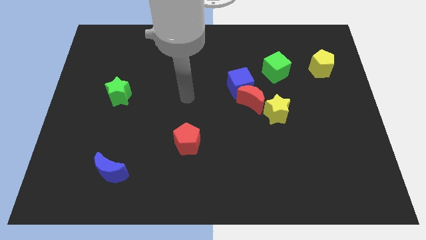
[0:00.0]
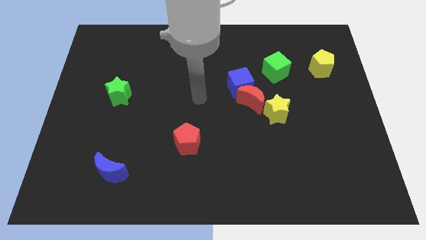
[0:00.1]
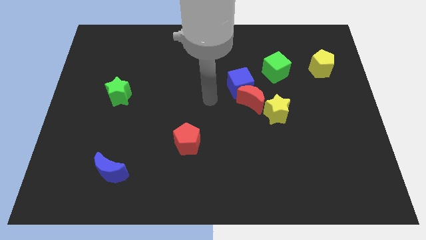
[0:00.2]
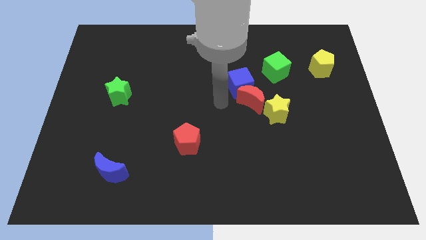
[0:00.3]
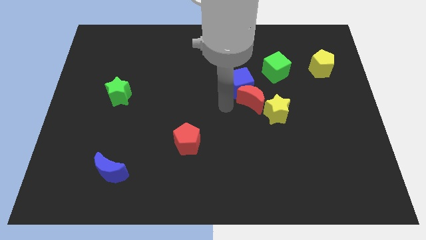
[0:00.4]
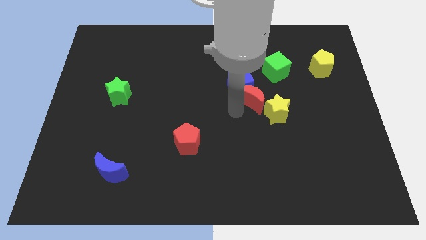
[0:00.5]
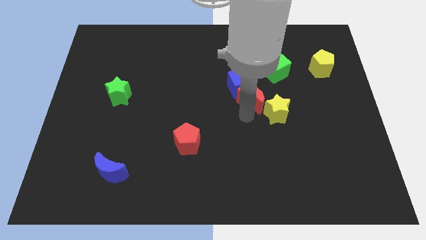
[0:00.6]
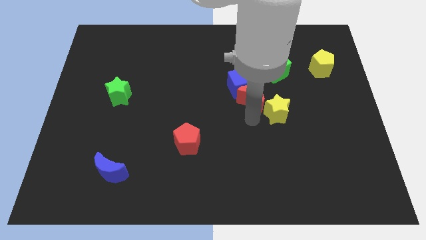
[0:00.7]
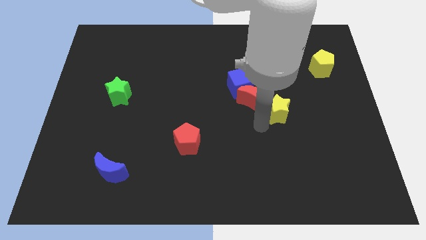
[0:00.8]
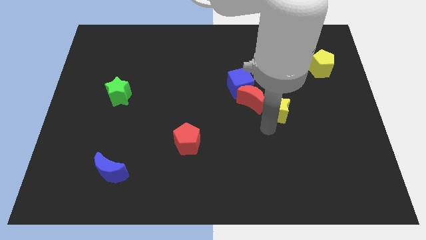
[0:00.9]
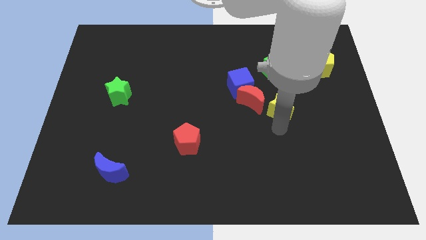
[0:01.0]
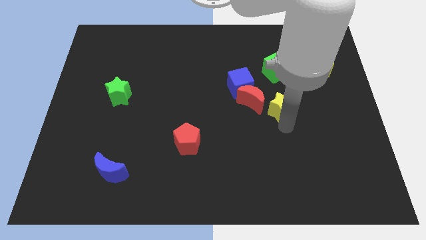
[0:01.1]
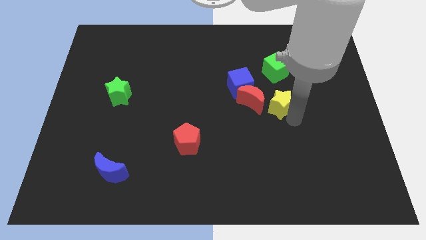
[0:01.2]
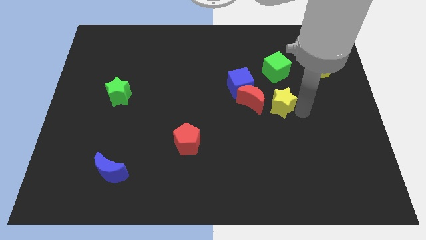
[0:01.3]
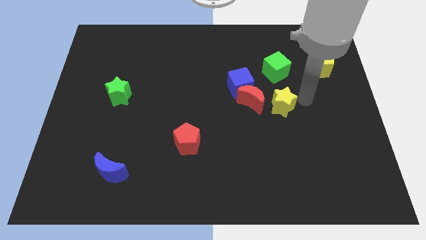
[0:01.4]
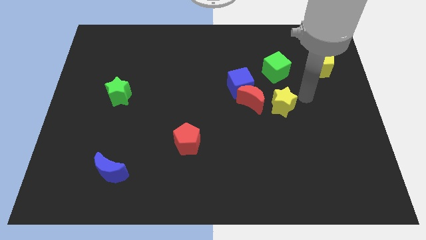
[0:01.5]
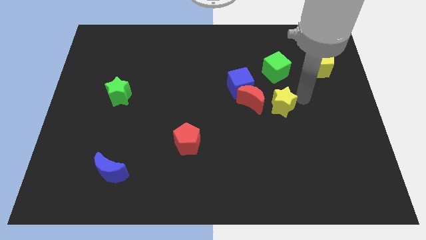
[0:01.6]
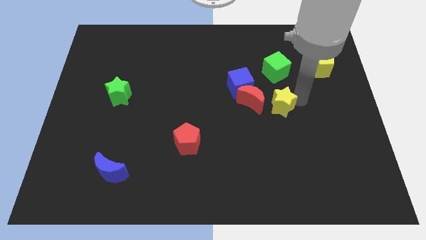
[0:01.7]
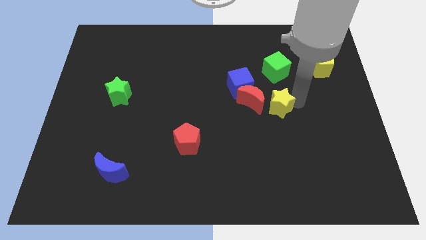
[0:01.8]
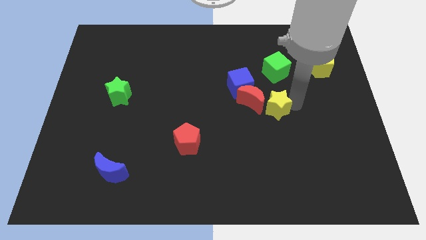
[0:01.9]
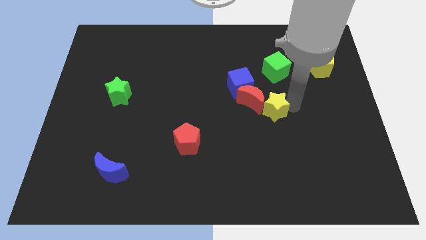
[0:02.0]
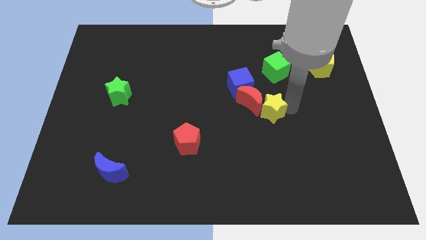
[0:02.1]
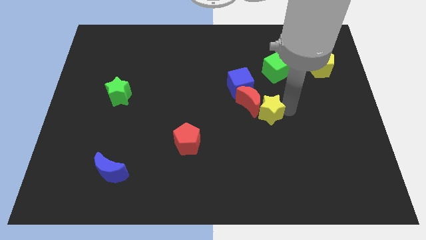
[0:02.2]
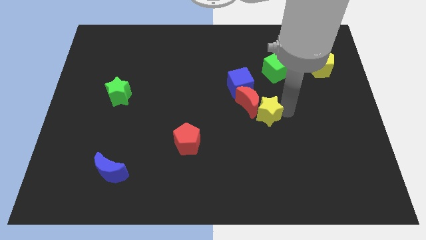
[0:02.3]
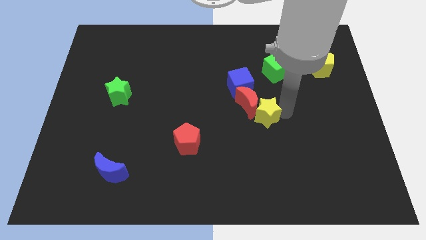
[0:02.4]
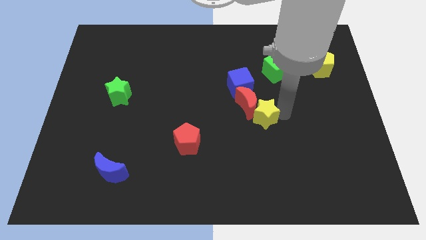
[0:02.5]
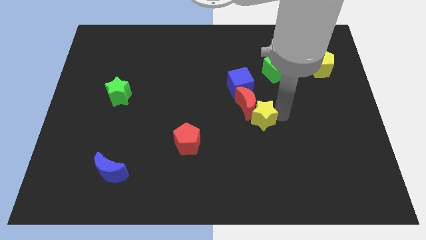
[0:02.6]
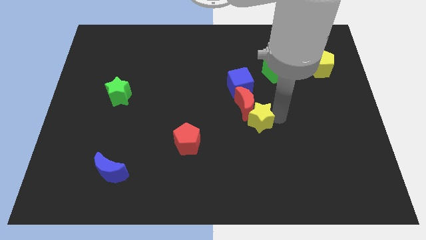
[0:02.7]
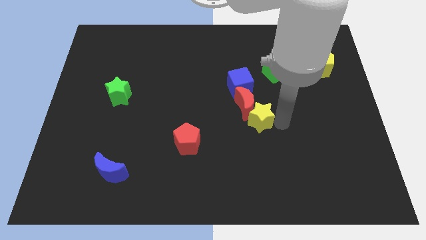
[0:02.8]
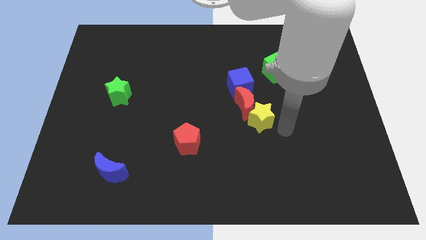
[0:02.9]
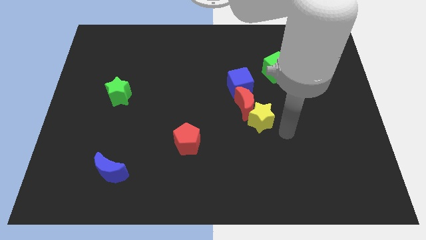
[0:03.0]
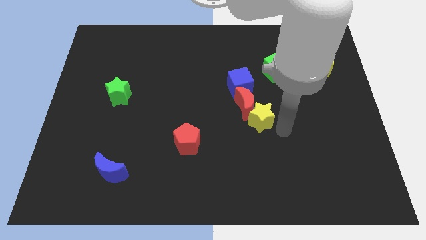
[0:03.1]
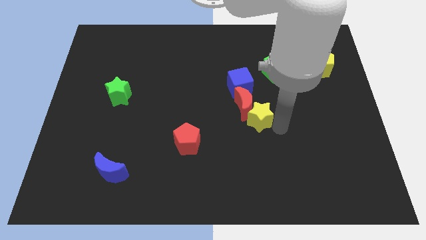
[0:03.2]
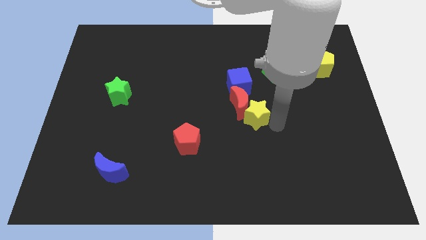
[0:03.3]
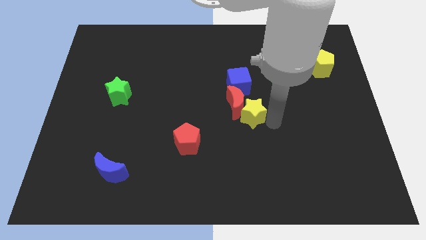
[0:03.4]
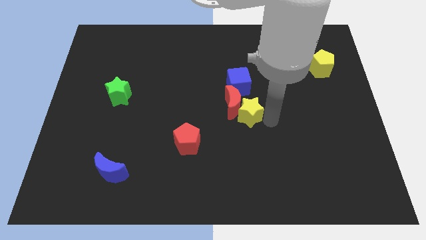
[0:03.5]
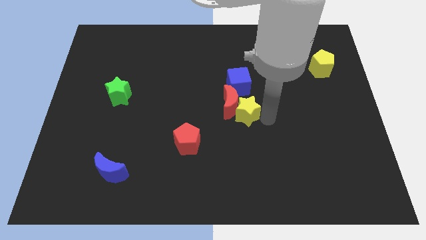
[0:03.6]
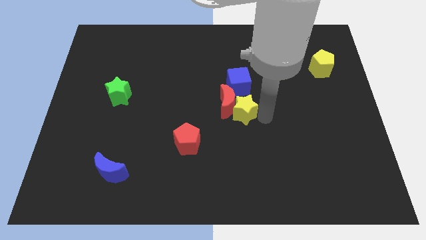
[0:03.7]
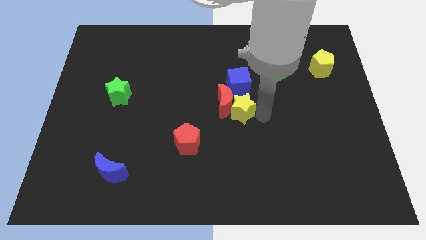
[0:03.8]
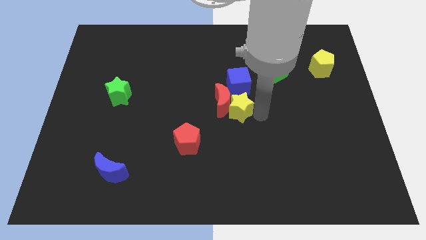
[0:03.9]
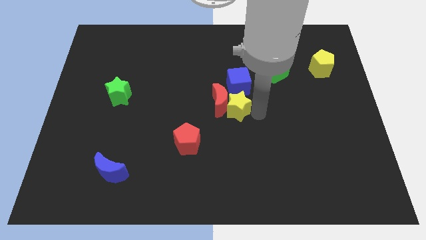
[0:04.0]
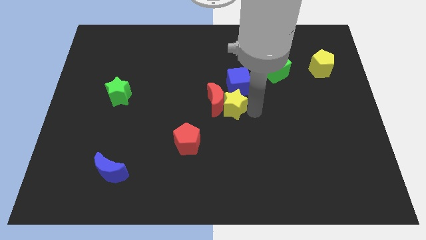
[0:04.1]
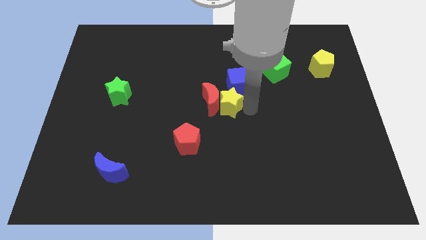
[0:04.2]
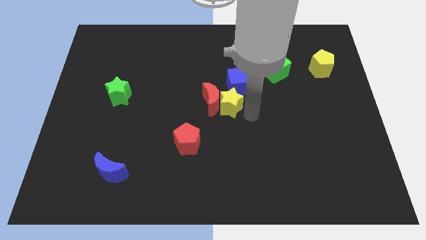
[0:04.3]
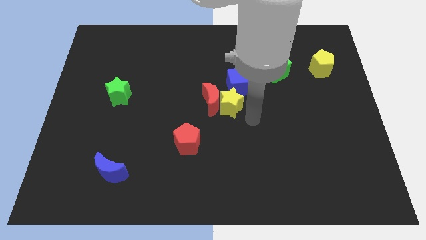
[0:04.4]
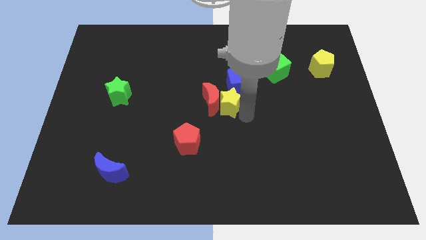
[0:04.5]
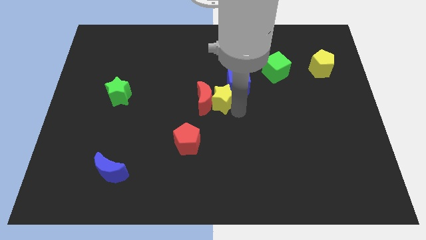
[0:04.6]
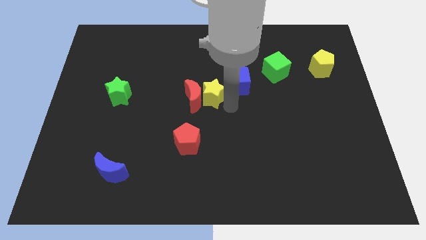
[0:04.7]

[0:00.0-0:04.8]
push the yellow star left of the blue cube

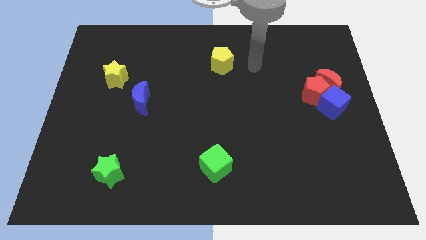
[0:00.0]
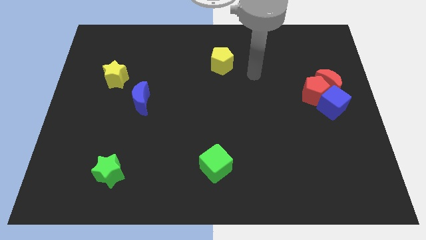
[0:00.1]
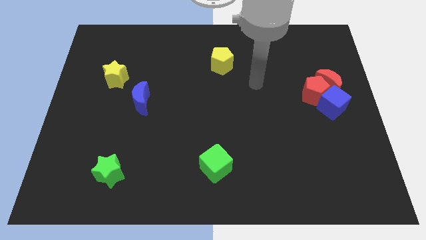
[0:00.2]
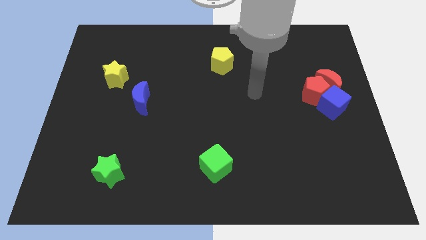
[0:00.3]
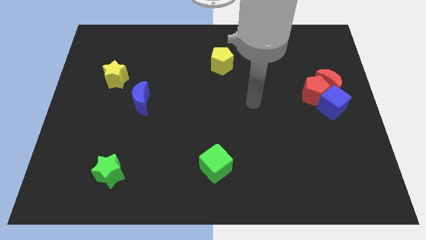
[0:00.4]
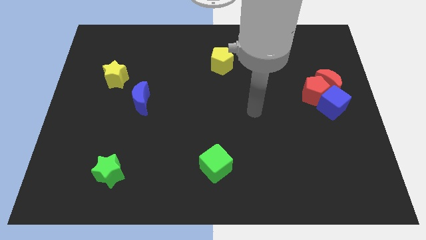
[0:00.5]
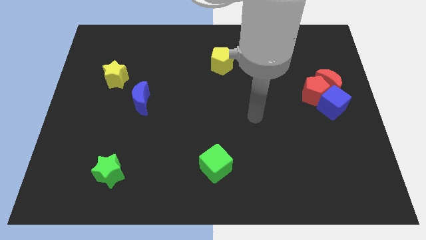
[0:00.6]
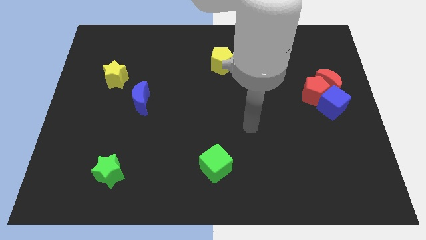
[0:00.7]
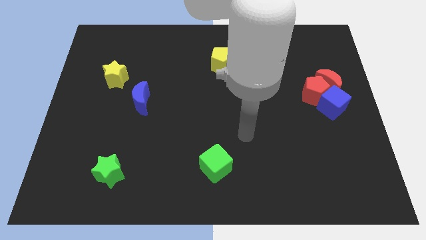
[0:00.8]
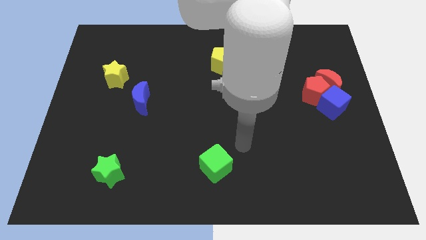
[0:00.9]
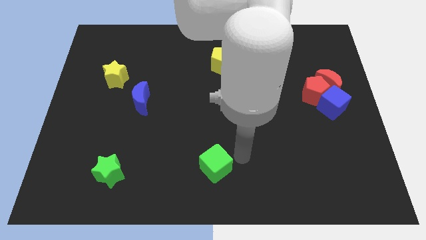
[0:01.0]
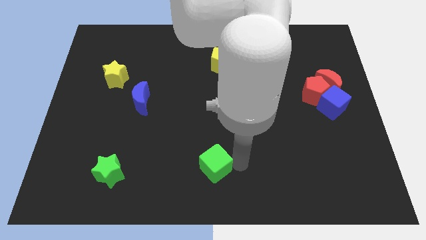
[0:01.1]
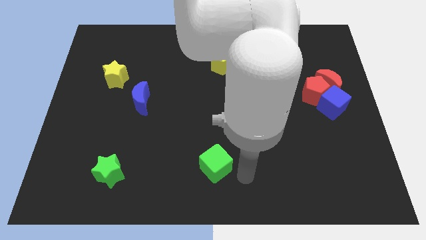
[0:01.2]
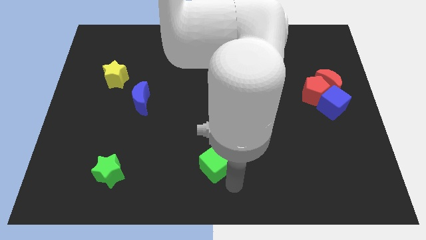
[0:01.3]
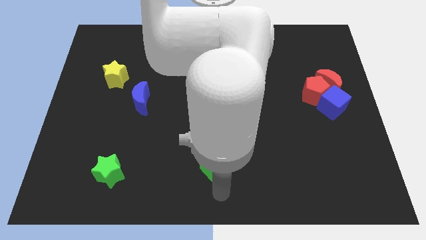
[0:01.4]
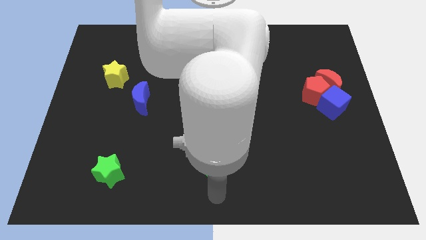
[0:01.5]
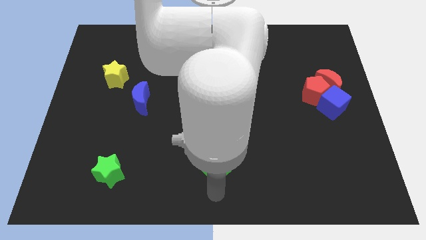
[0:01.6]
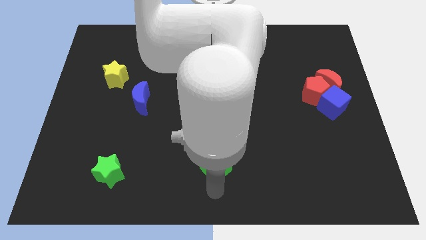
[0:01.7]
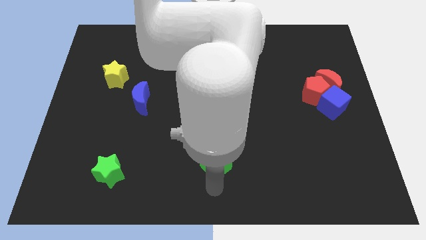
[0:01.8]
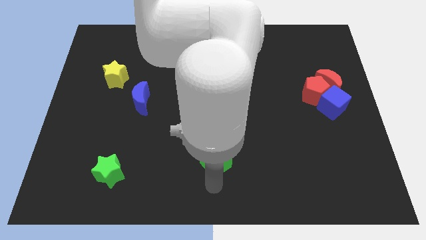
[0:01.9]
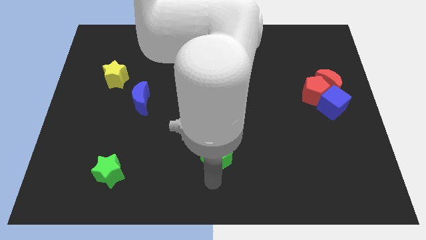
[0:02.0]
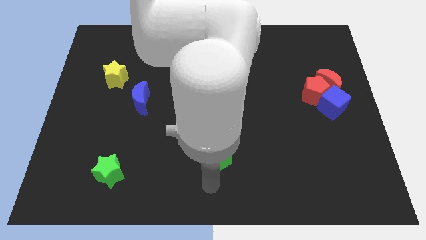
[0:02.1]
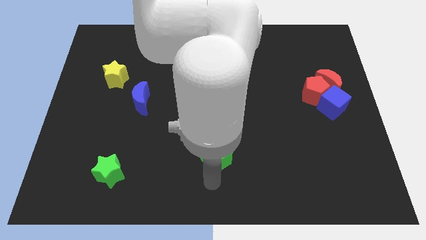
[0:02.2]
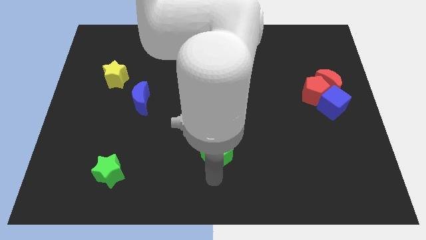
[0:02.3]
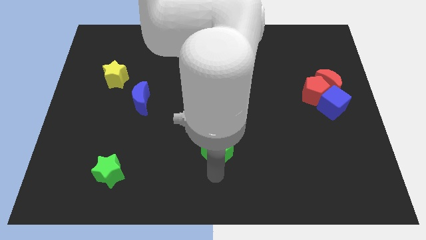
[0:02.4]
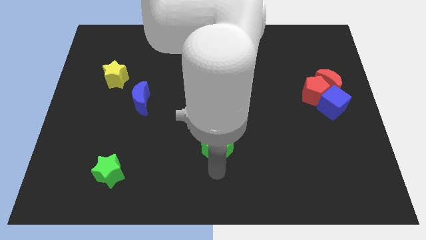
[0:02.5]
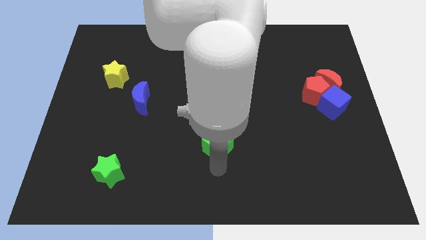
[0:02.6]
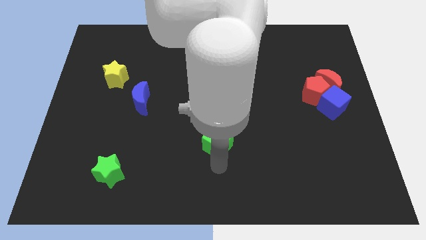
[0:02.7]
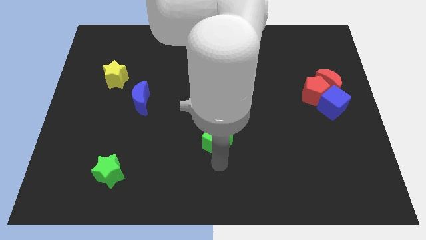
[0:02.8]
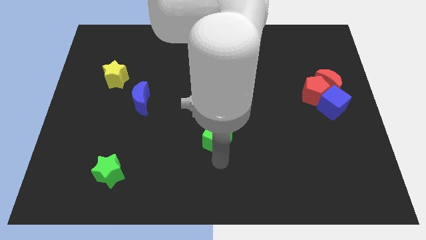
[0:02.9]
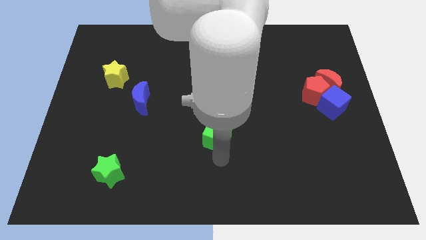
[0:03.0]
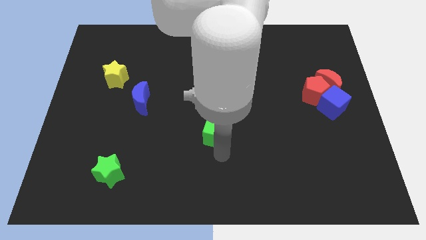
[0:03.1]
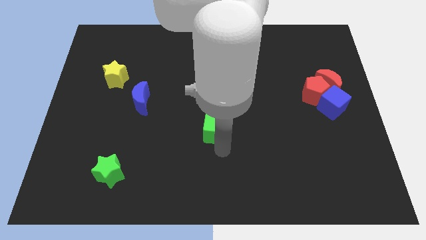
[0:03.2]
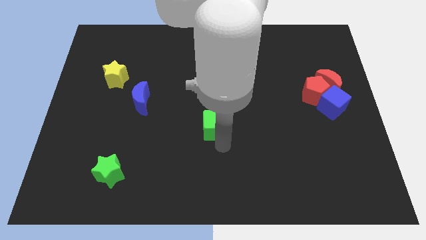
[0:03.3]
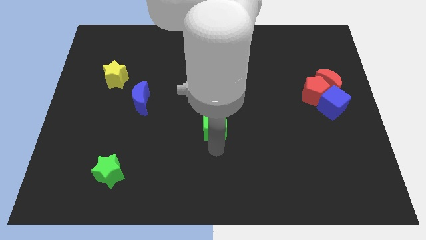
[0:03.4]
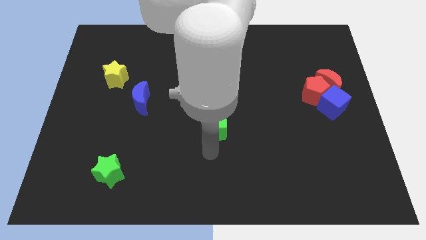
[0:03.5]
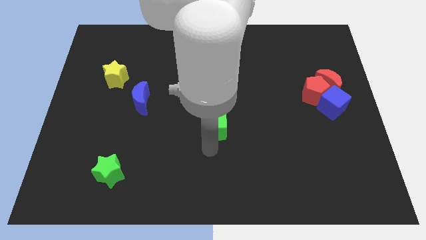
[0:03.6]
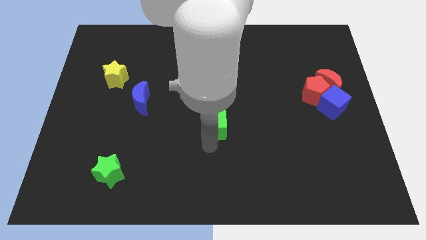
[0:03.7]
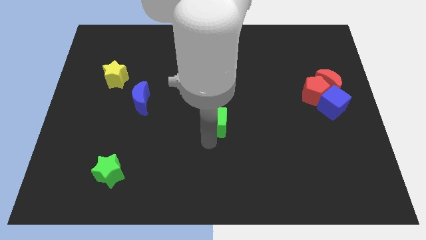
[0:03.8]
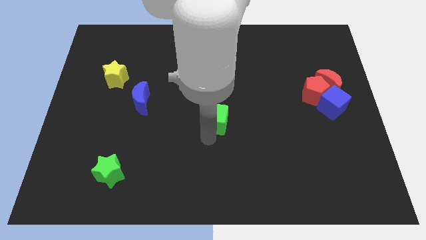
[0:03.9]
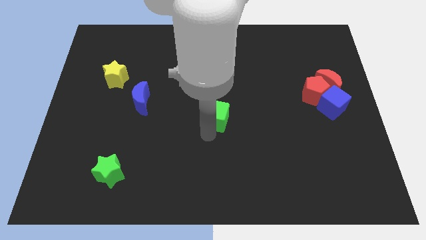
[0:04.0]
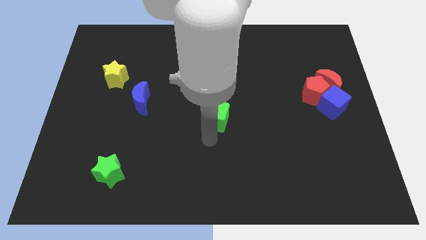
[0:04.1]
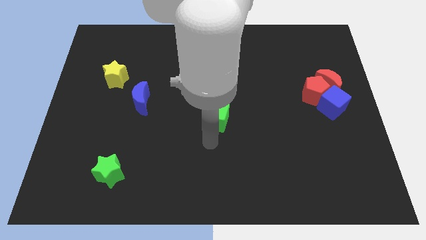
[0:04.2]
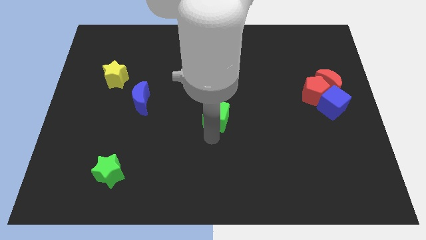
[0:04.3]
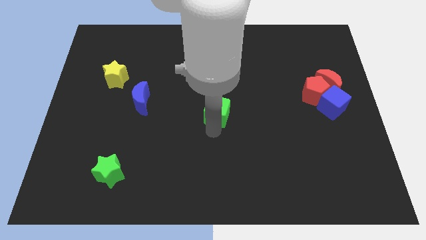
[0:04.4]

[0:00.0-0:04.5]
move the green cube to the bottom of the yellow pentagon
